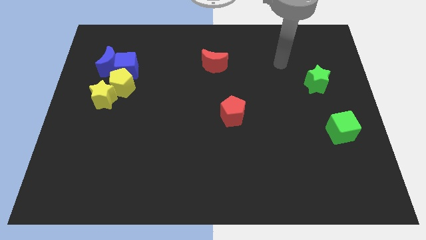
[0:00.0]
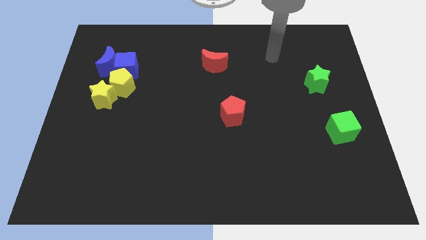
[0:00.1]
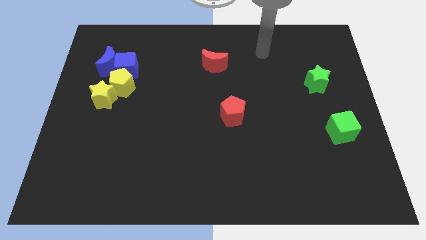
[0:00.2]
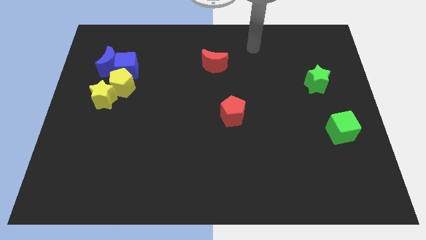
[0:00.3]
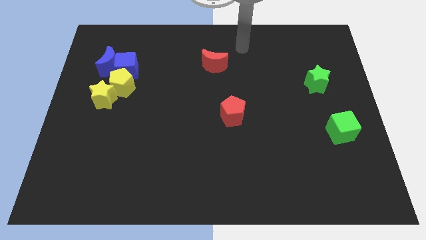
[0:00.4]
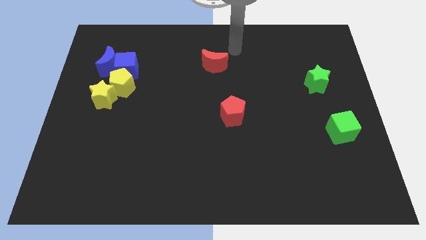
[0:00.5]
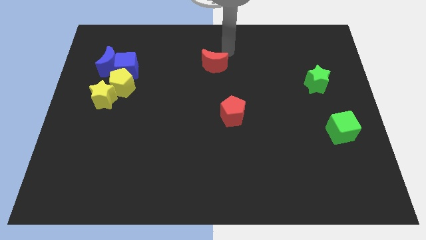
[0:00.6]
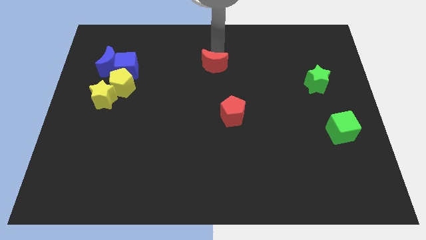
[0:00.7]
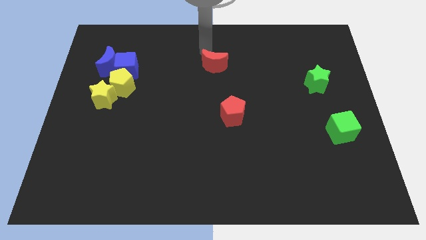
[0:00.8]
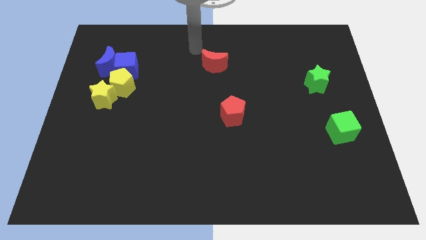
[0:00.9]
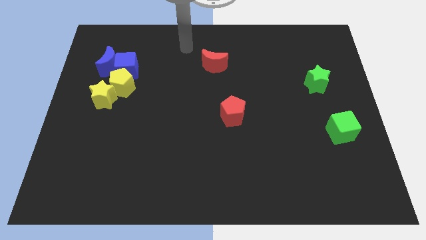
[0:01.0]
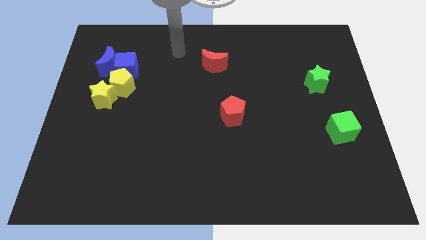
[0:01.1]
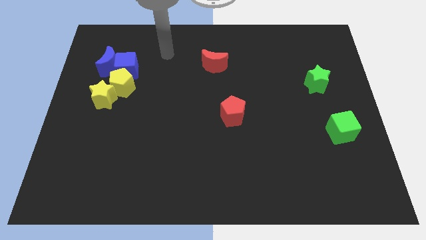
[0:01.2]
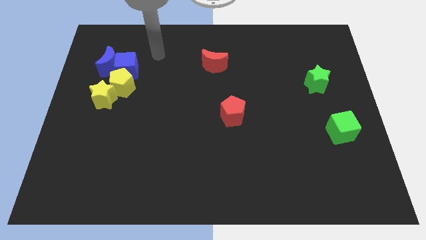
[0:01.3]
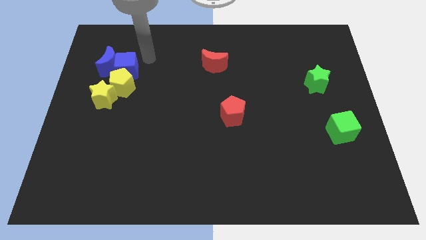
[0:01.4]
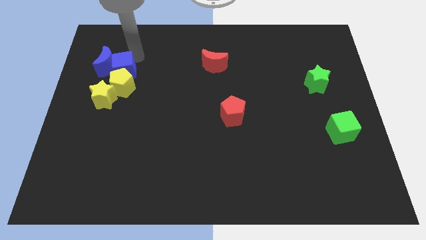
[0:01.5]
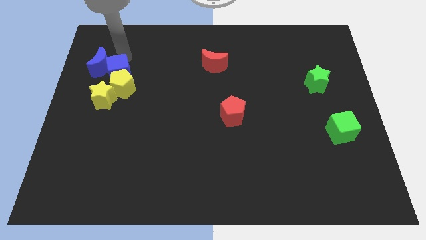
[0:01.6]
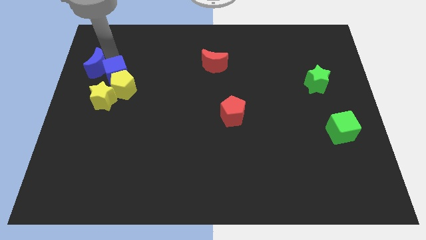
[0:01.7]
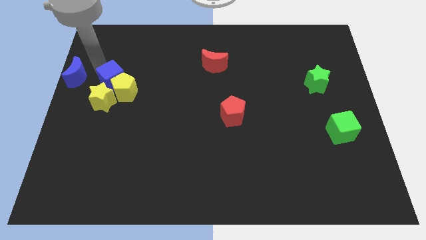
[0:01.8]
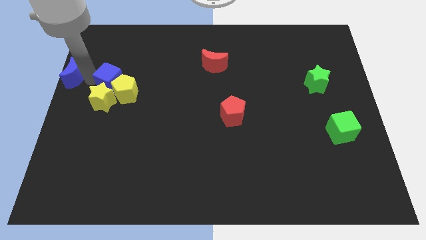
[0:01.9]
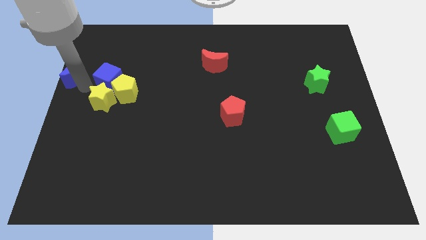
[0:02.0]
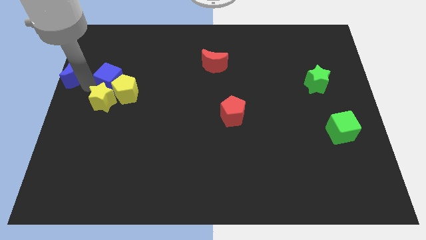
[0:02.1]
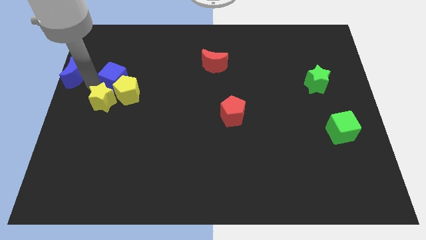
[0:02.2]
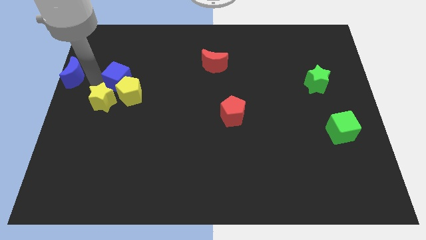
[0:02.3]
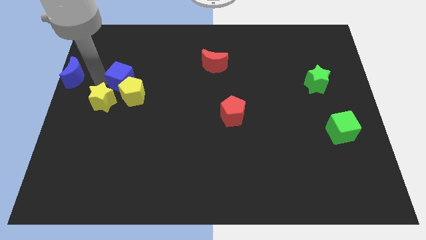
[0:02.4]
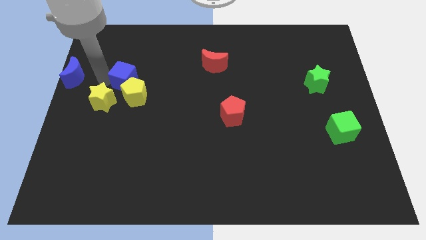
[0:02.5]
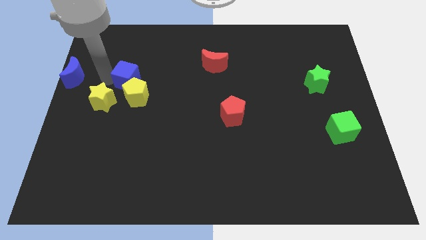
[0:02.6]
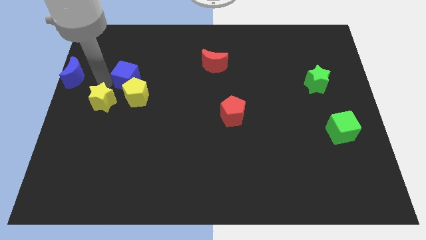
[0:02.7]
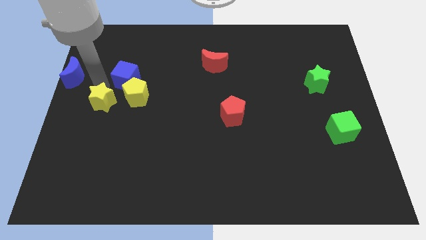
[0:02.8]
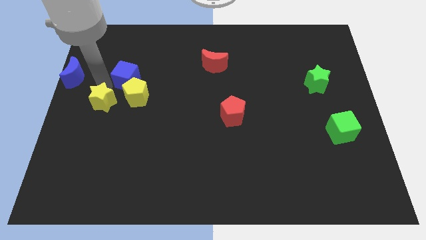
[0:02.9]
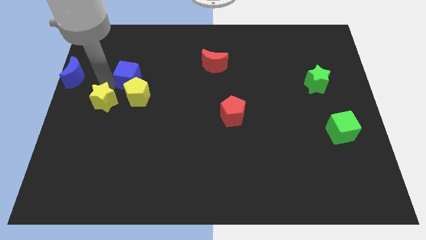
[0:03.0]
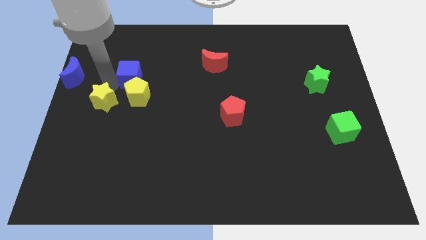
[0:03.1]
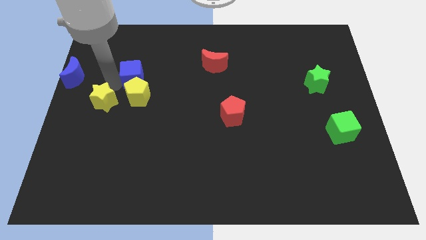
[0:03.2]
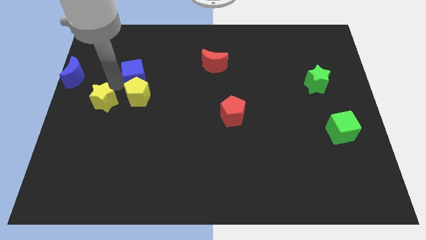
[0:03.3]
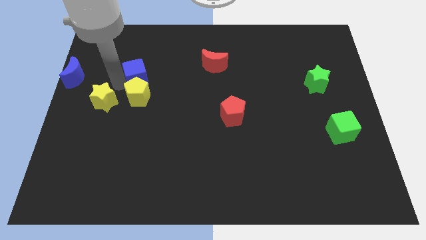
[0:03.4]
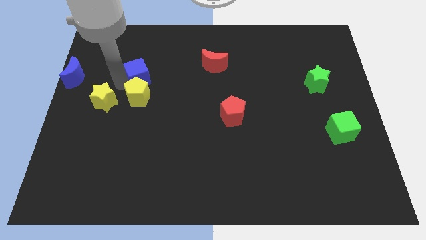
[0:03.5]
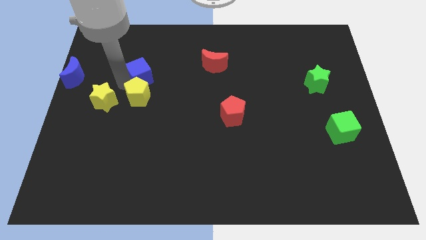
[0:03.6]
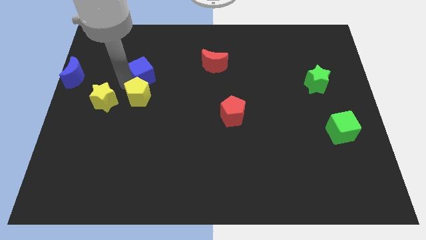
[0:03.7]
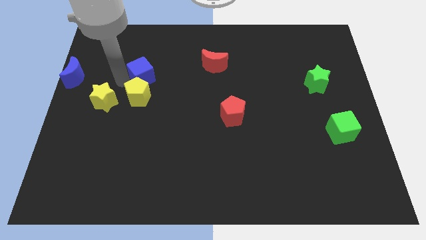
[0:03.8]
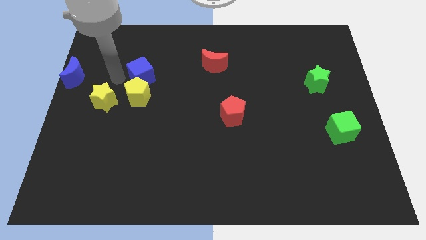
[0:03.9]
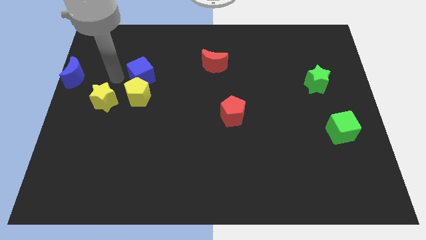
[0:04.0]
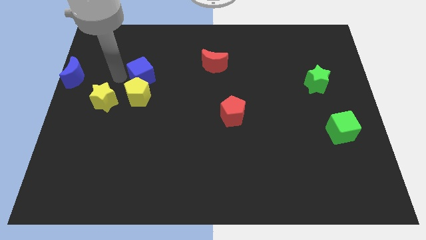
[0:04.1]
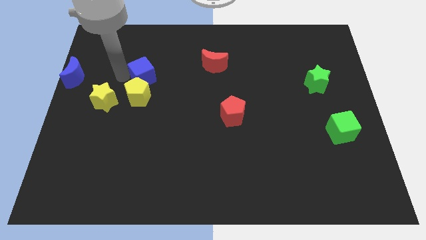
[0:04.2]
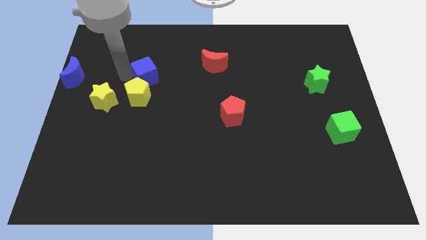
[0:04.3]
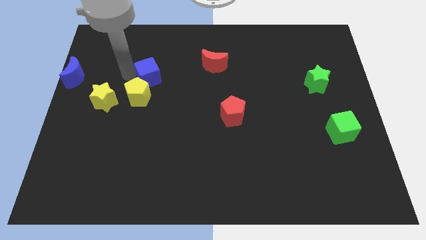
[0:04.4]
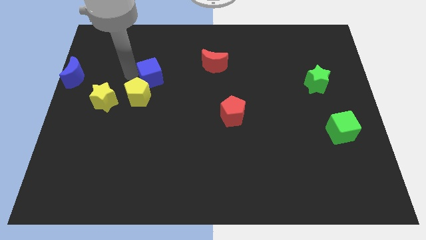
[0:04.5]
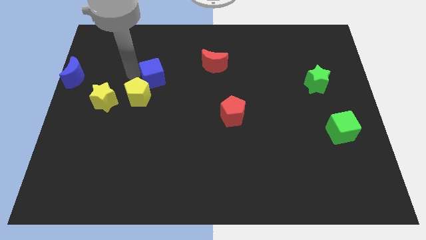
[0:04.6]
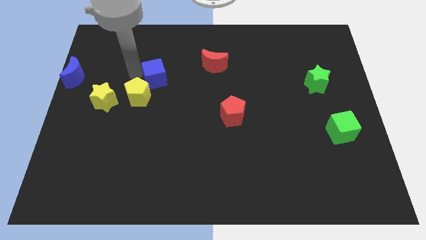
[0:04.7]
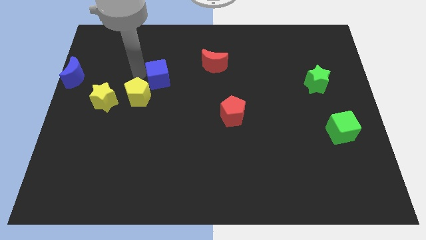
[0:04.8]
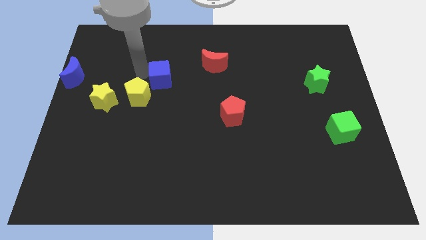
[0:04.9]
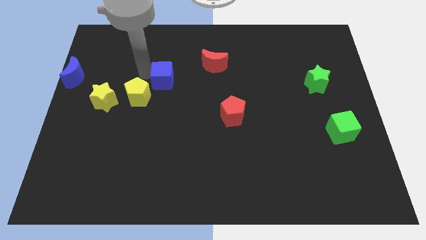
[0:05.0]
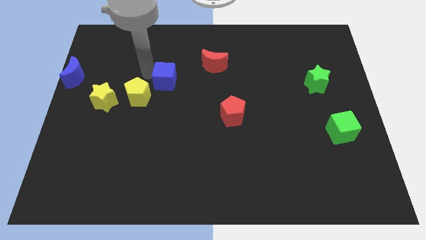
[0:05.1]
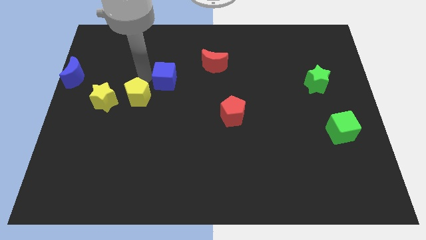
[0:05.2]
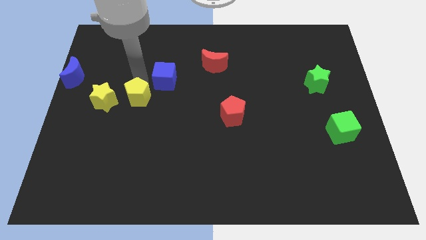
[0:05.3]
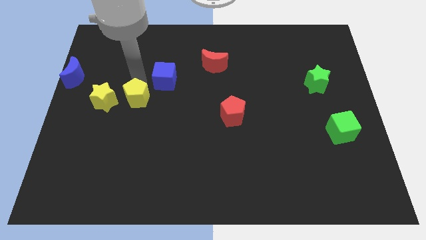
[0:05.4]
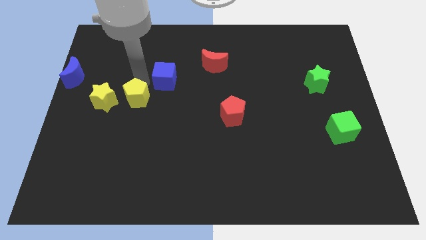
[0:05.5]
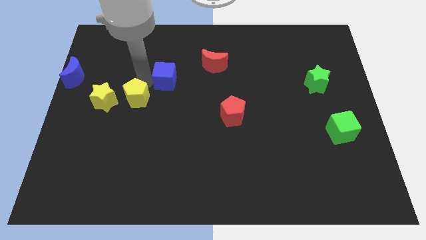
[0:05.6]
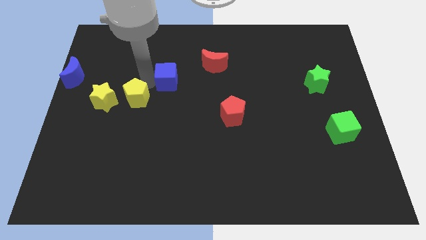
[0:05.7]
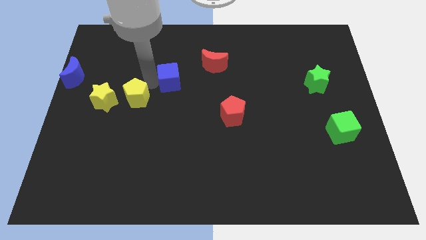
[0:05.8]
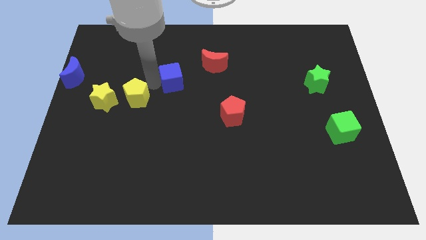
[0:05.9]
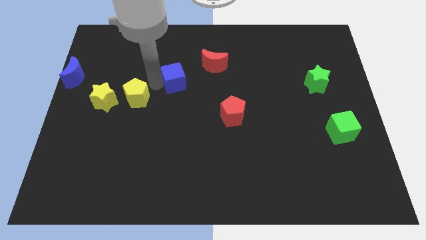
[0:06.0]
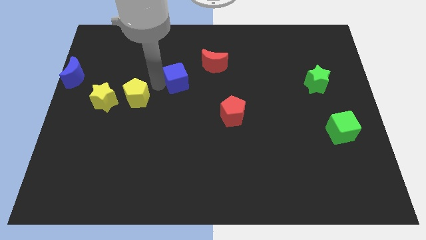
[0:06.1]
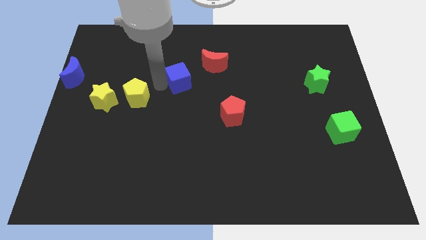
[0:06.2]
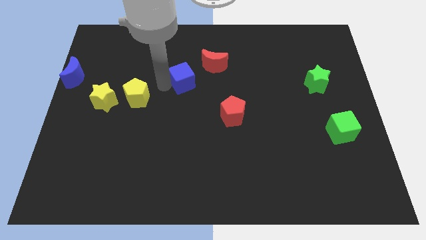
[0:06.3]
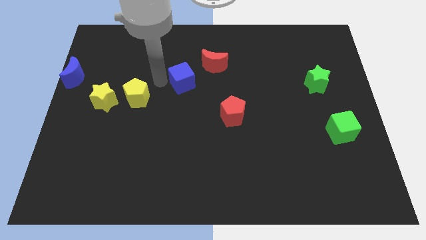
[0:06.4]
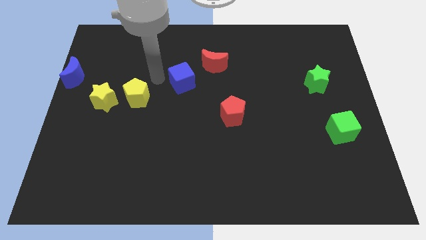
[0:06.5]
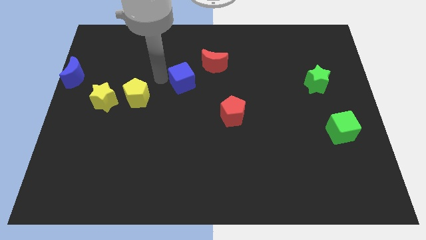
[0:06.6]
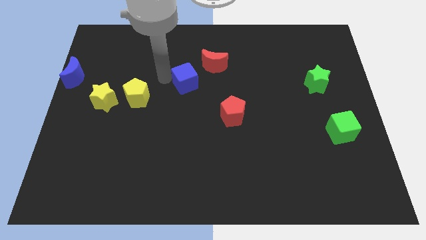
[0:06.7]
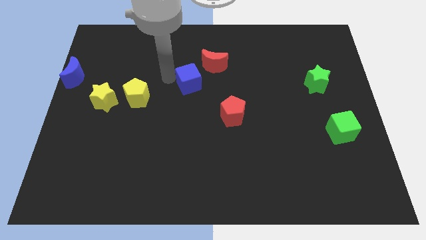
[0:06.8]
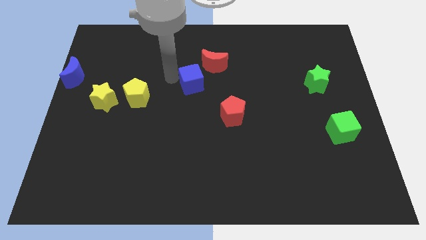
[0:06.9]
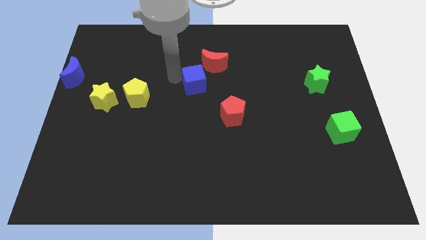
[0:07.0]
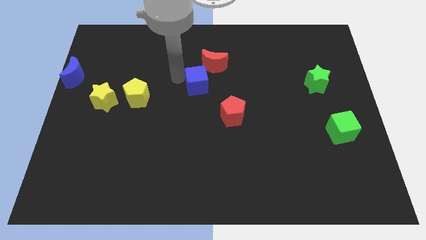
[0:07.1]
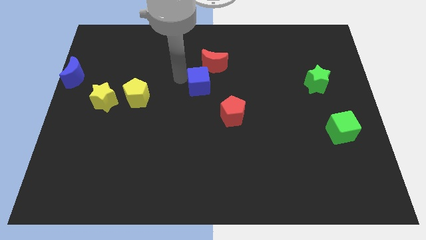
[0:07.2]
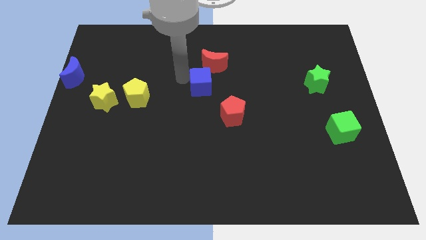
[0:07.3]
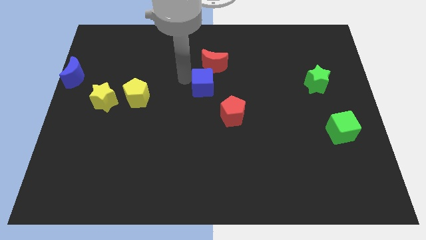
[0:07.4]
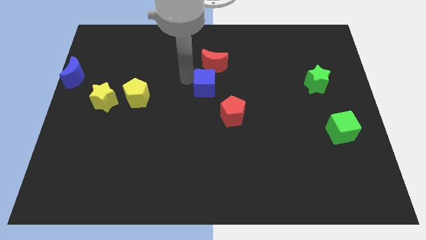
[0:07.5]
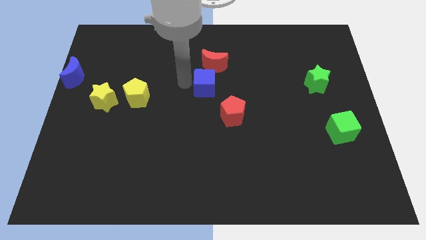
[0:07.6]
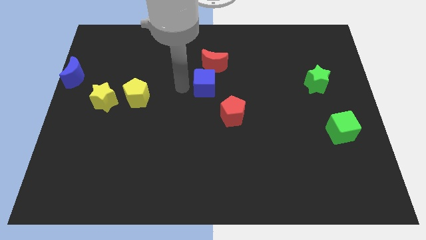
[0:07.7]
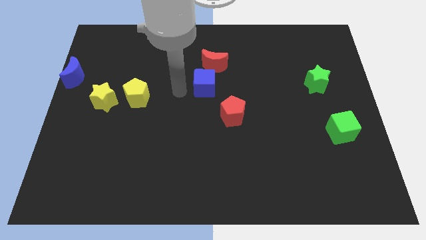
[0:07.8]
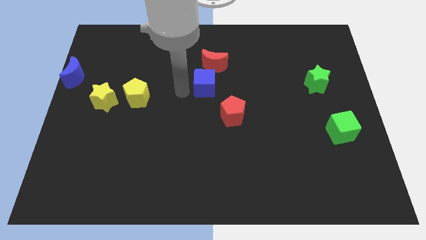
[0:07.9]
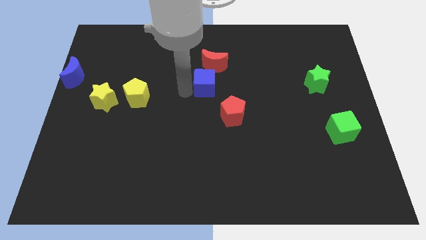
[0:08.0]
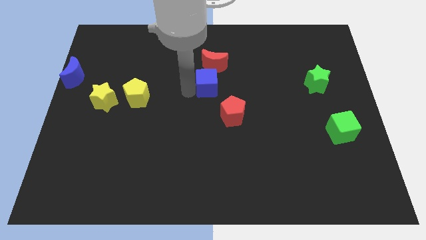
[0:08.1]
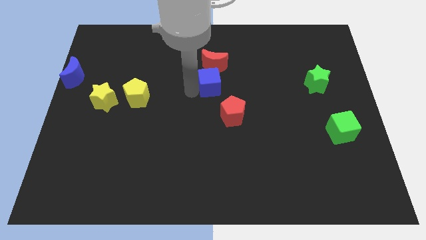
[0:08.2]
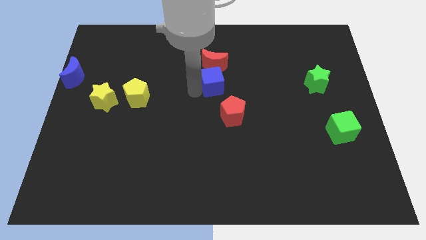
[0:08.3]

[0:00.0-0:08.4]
move the blue cube to the bottom right of the red moon

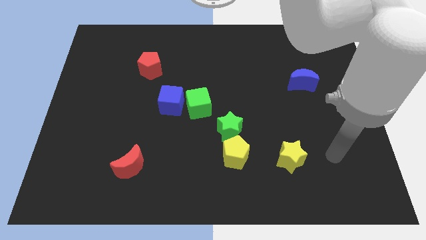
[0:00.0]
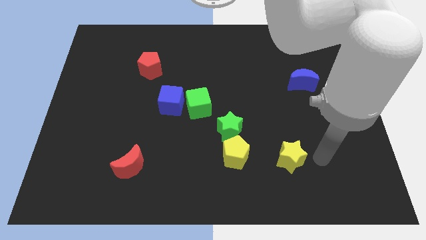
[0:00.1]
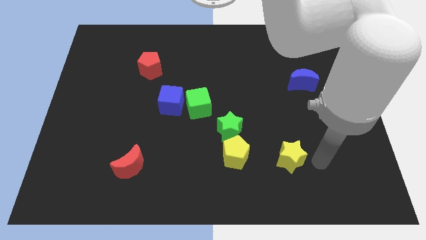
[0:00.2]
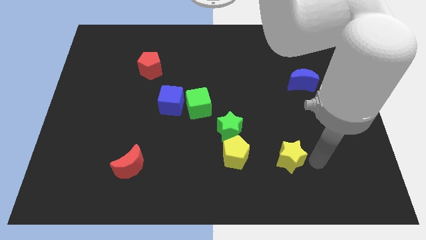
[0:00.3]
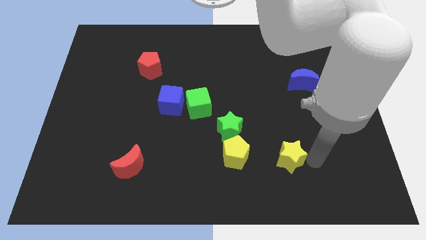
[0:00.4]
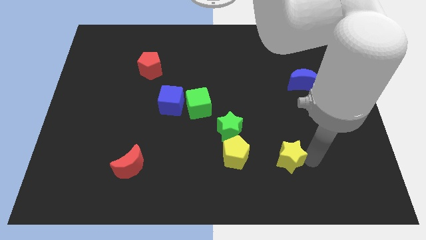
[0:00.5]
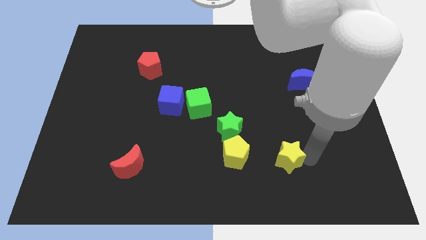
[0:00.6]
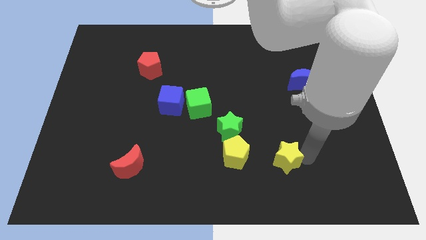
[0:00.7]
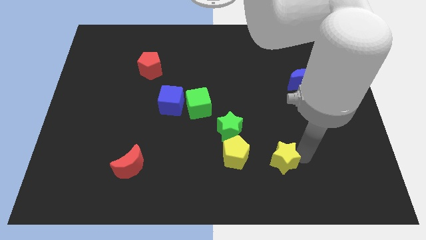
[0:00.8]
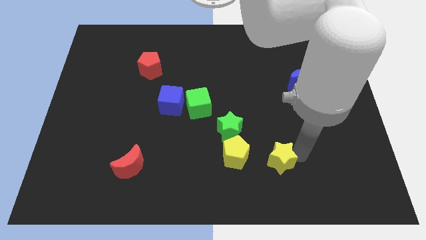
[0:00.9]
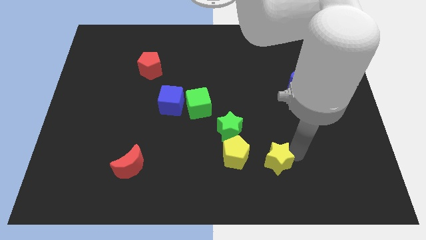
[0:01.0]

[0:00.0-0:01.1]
move the yellow star to the bottom right side of the green star
